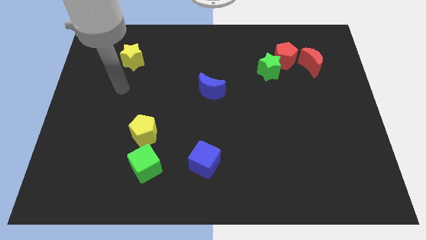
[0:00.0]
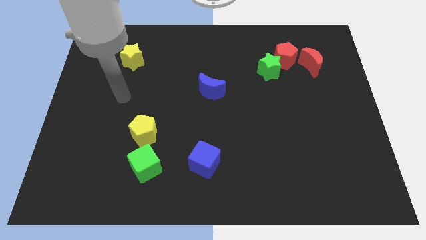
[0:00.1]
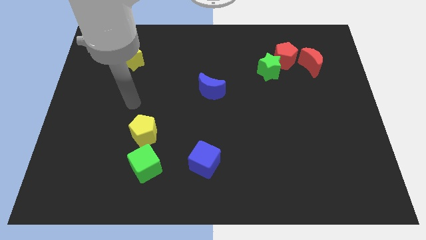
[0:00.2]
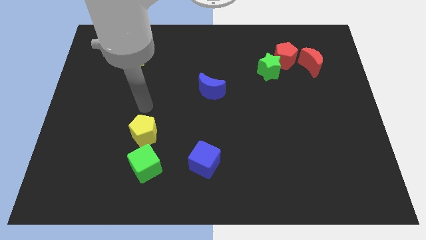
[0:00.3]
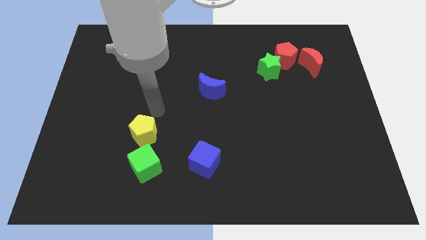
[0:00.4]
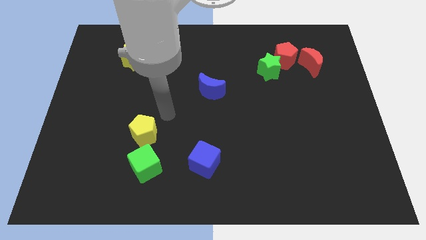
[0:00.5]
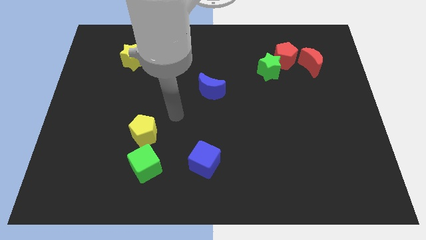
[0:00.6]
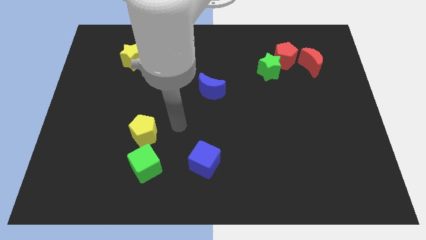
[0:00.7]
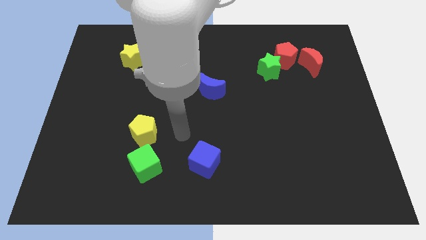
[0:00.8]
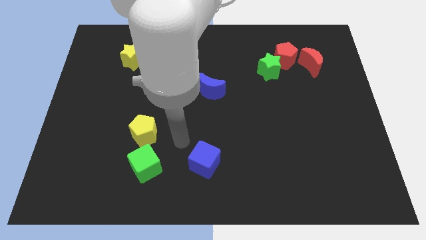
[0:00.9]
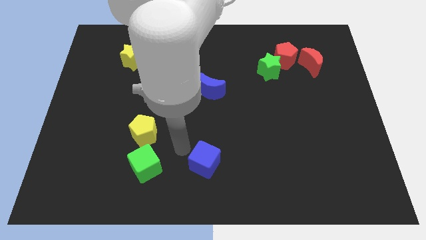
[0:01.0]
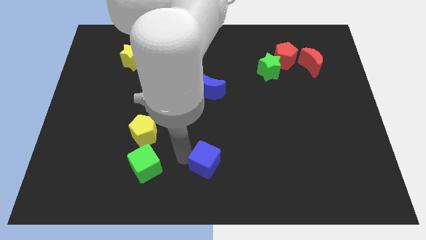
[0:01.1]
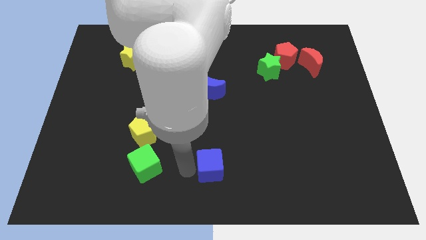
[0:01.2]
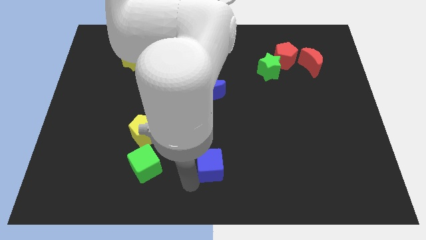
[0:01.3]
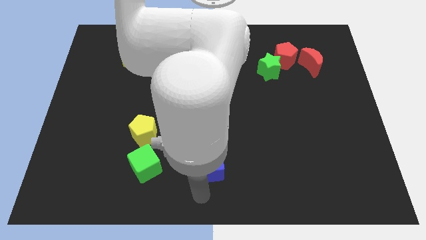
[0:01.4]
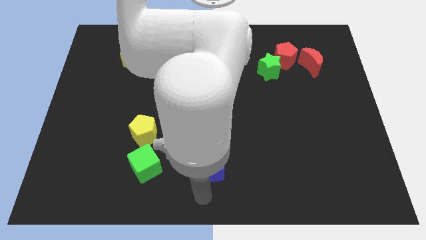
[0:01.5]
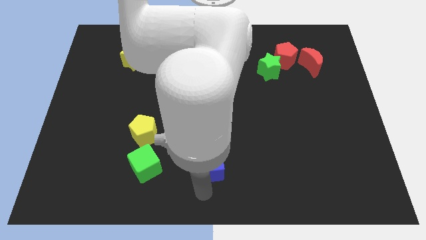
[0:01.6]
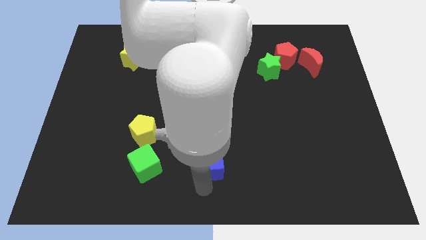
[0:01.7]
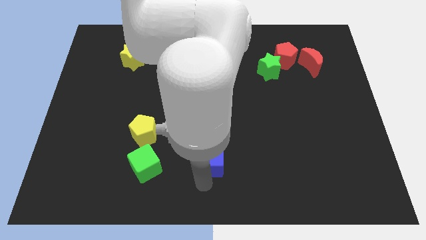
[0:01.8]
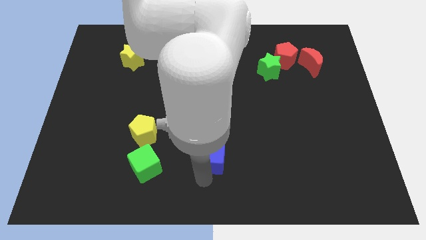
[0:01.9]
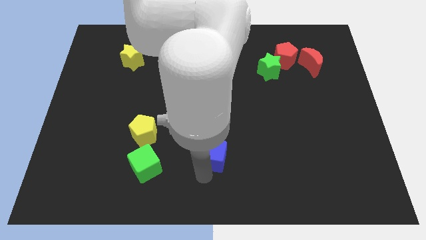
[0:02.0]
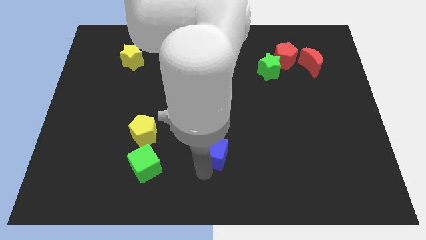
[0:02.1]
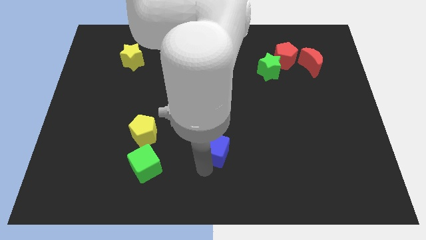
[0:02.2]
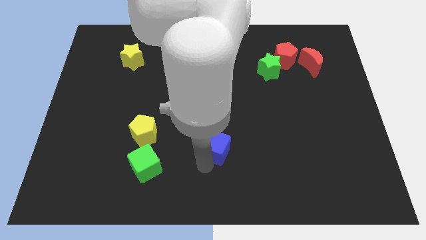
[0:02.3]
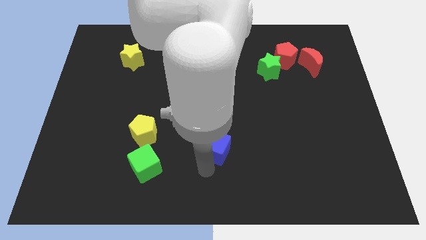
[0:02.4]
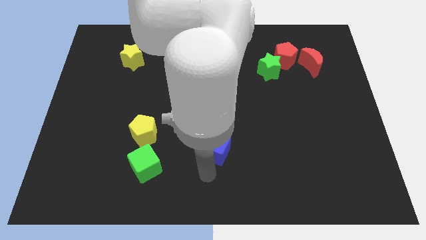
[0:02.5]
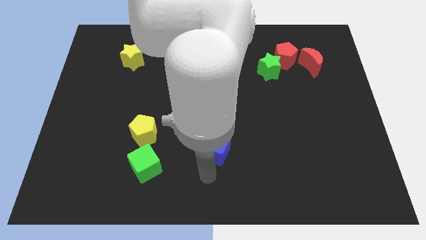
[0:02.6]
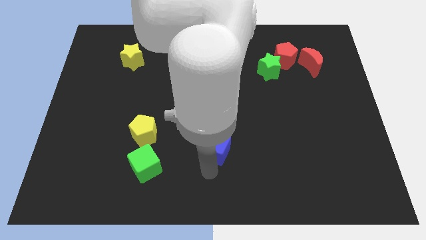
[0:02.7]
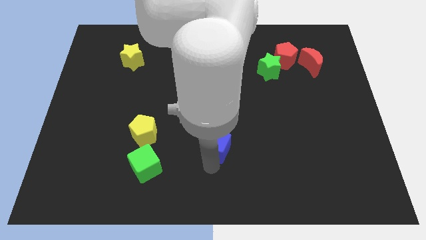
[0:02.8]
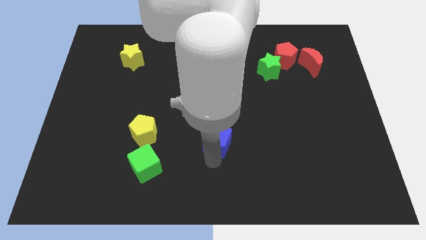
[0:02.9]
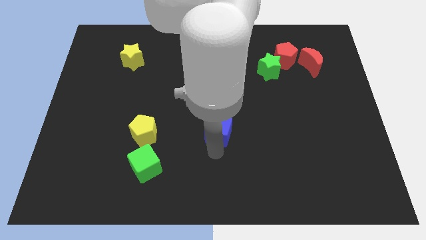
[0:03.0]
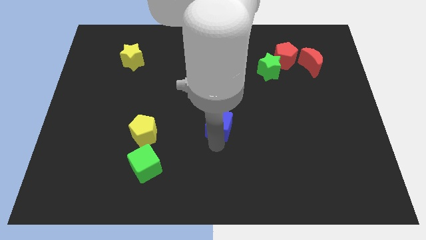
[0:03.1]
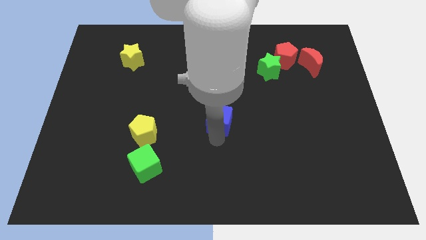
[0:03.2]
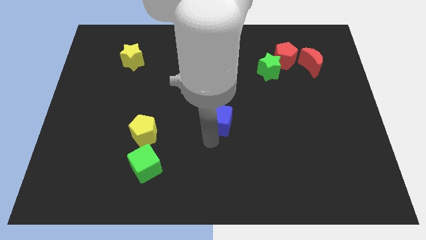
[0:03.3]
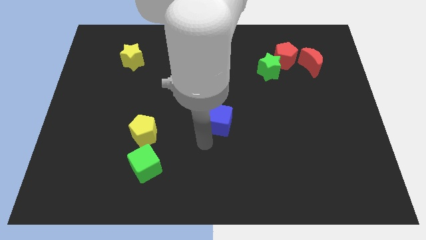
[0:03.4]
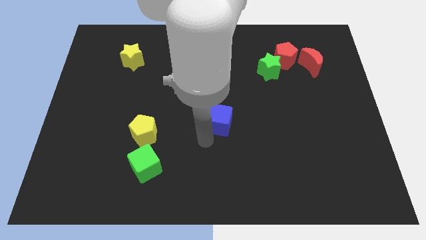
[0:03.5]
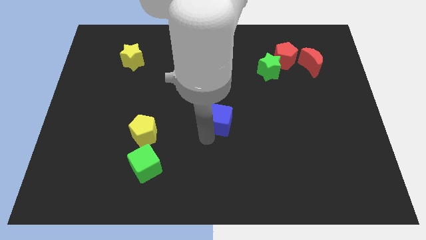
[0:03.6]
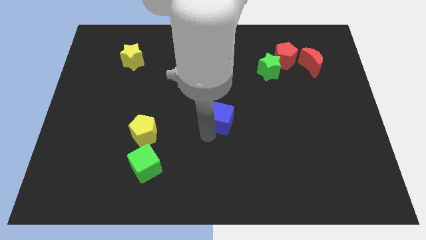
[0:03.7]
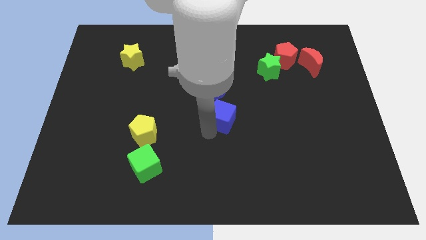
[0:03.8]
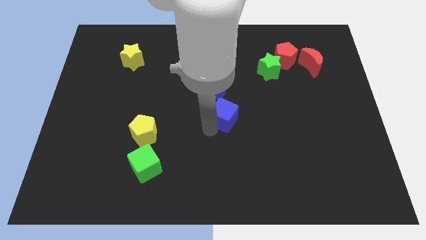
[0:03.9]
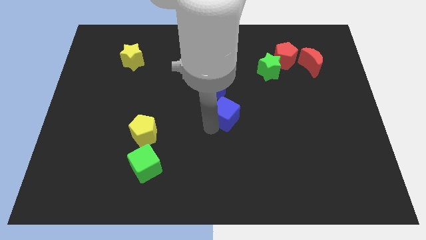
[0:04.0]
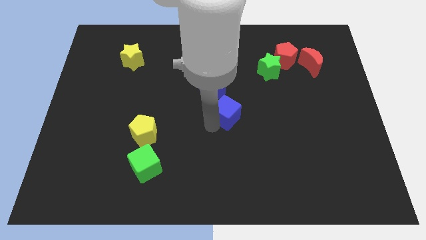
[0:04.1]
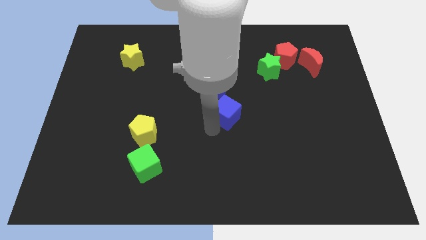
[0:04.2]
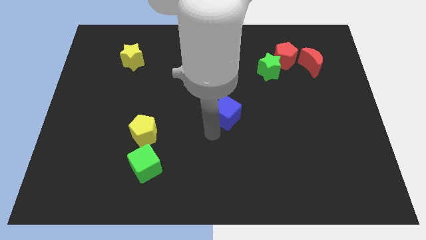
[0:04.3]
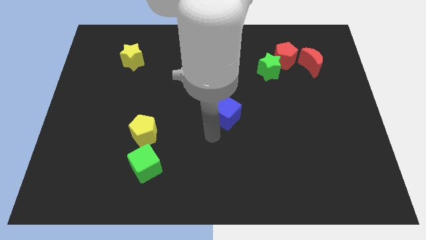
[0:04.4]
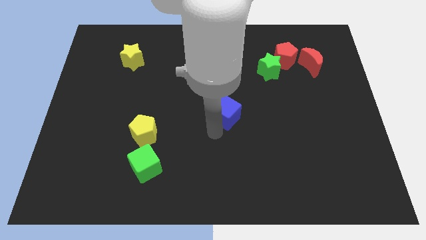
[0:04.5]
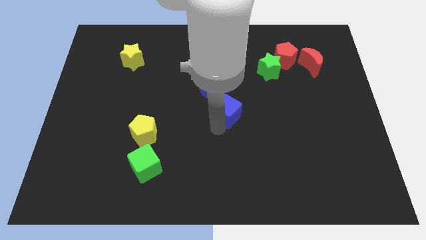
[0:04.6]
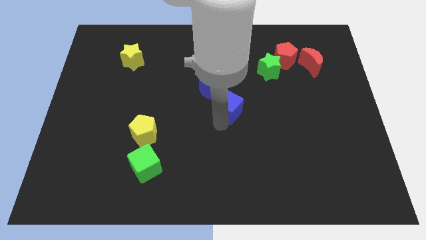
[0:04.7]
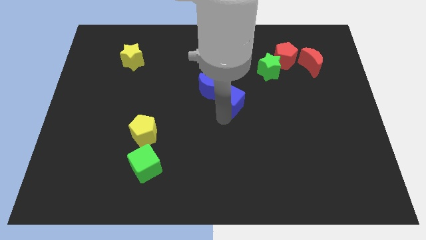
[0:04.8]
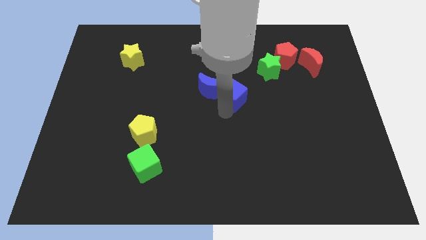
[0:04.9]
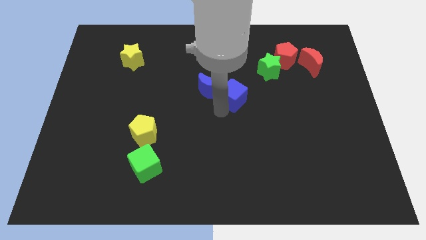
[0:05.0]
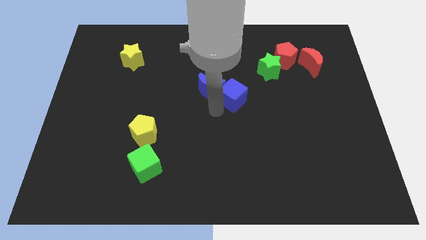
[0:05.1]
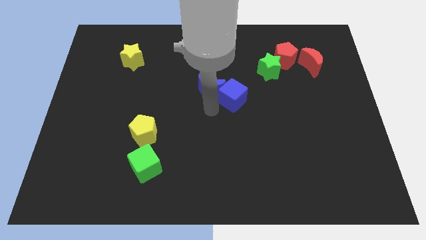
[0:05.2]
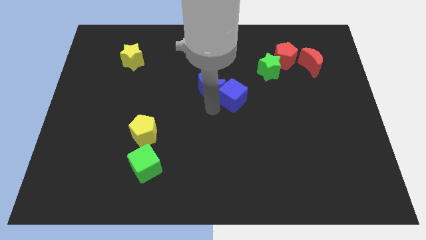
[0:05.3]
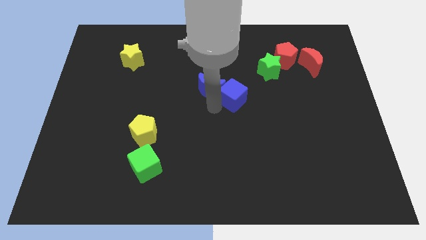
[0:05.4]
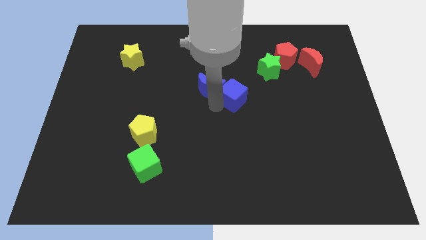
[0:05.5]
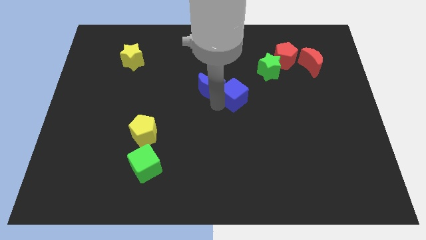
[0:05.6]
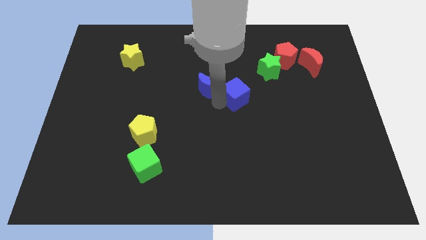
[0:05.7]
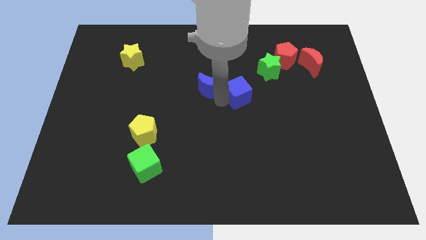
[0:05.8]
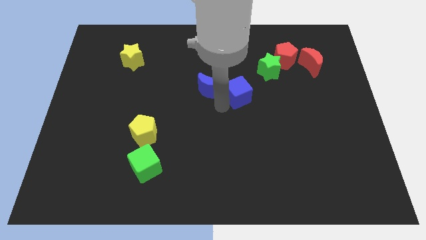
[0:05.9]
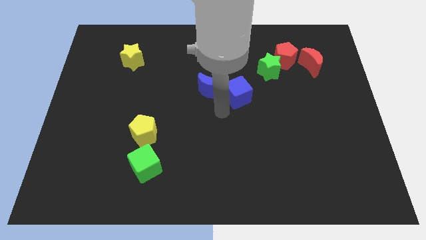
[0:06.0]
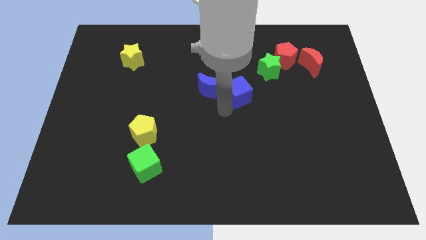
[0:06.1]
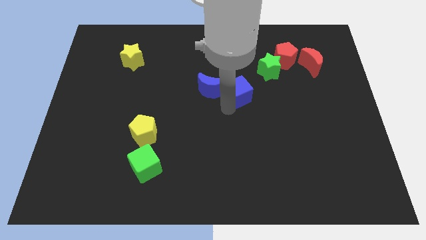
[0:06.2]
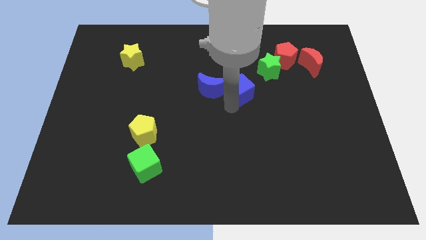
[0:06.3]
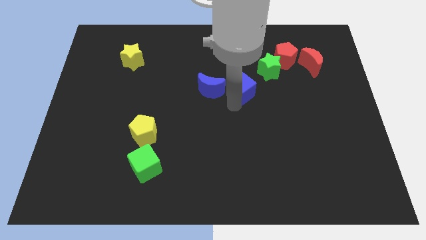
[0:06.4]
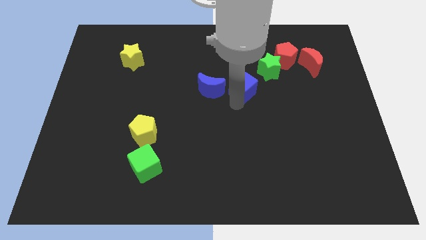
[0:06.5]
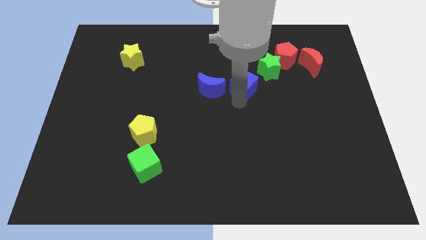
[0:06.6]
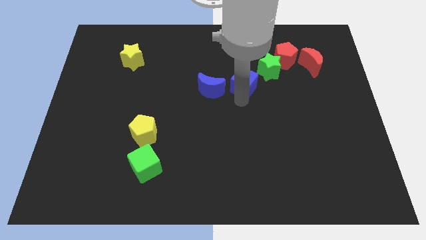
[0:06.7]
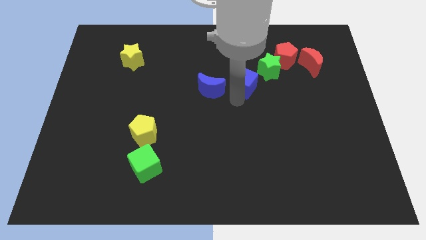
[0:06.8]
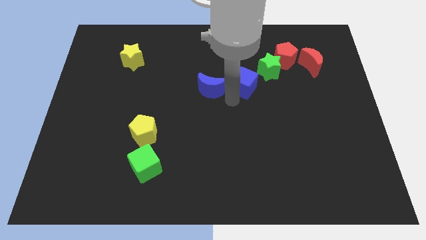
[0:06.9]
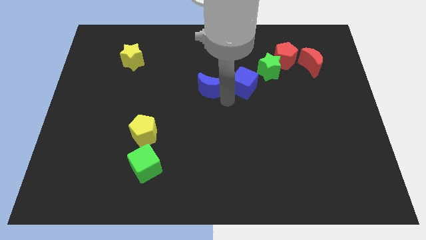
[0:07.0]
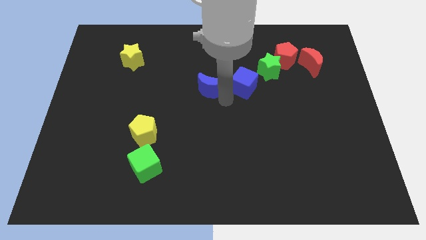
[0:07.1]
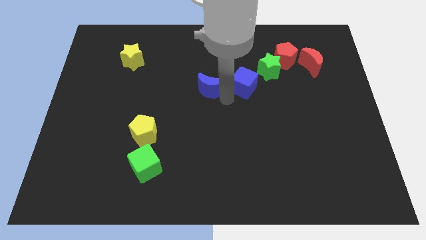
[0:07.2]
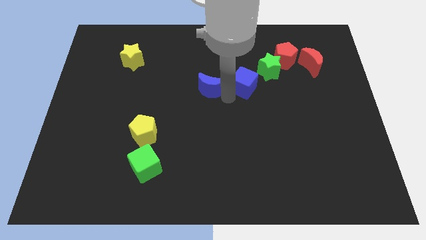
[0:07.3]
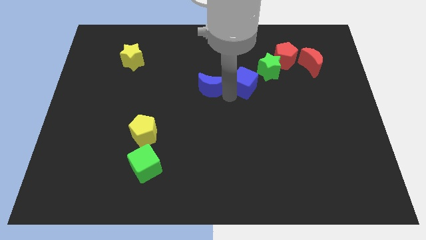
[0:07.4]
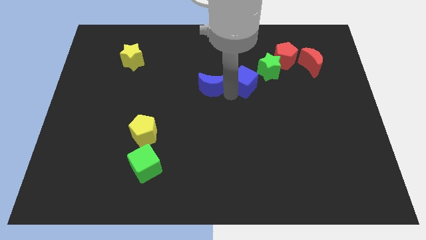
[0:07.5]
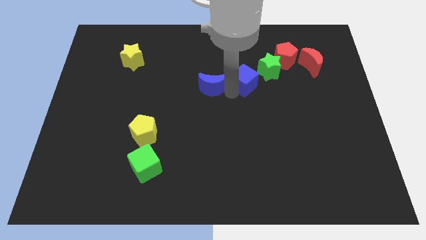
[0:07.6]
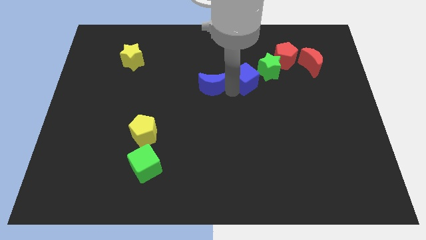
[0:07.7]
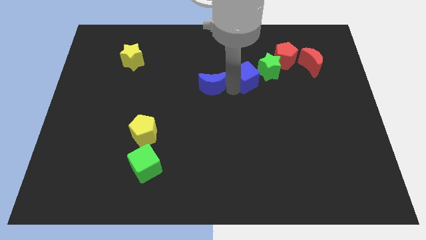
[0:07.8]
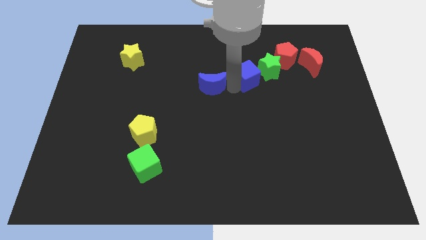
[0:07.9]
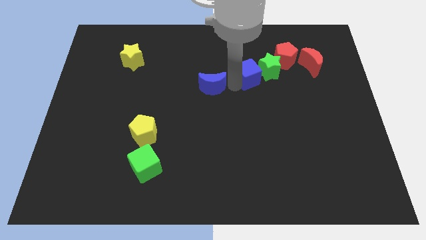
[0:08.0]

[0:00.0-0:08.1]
slide the blue cube to the green star
